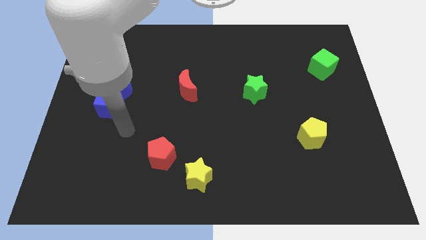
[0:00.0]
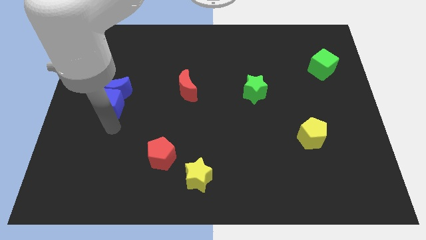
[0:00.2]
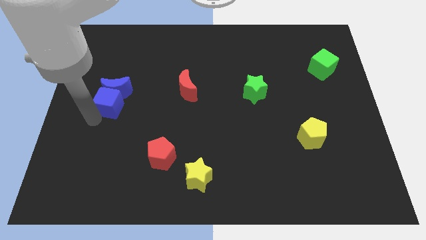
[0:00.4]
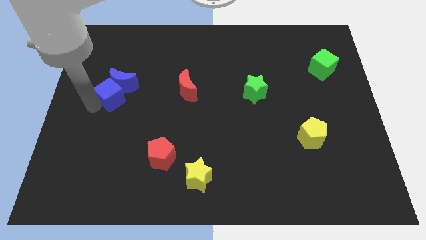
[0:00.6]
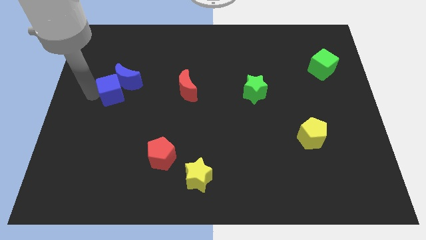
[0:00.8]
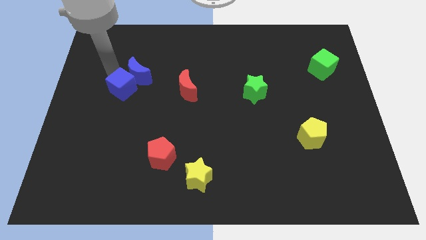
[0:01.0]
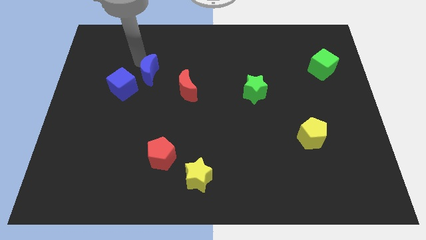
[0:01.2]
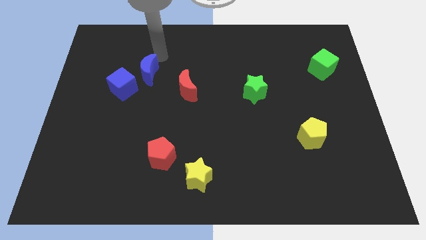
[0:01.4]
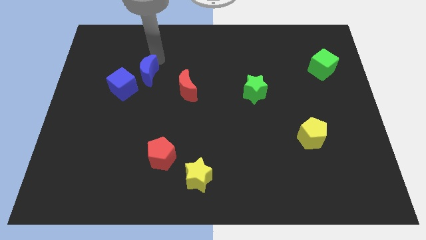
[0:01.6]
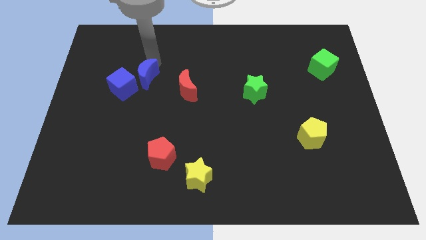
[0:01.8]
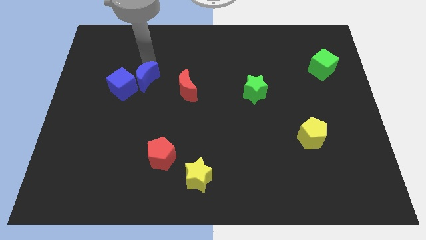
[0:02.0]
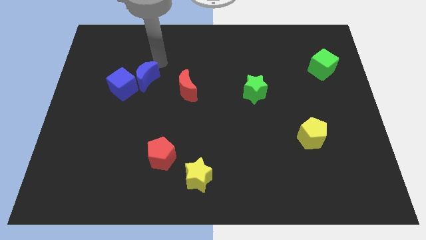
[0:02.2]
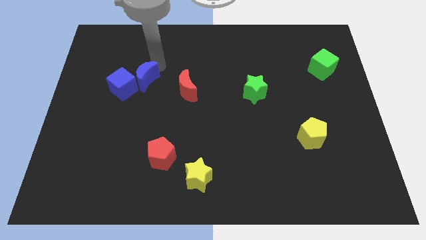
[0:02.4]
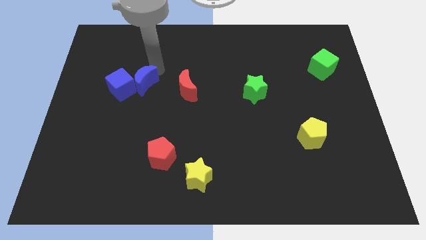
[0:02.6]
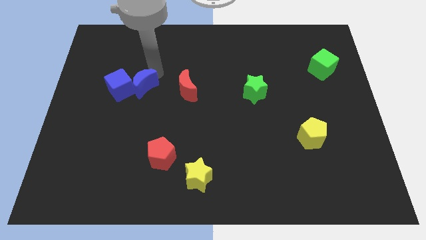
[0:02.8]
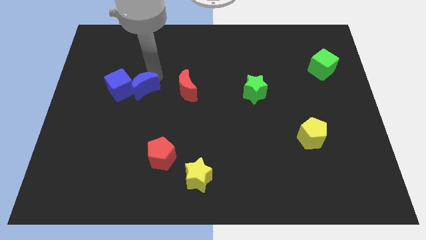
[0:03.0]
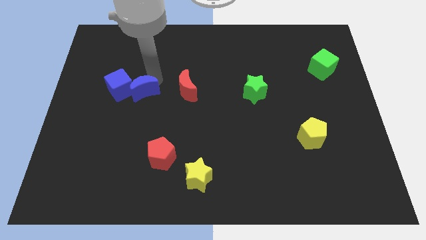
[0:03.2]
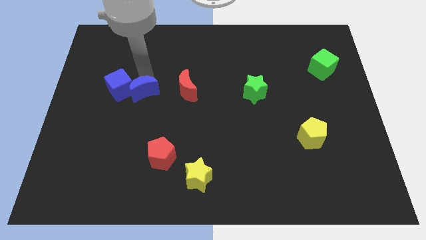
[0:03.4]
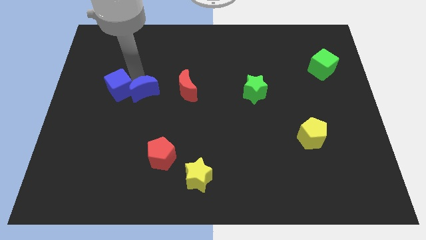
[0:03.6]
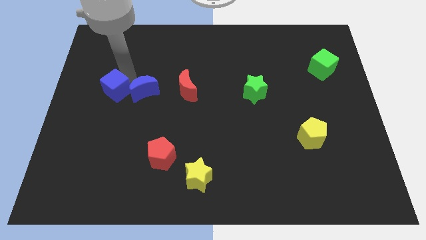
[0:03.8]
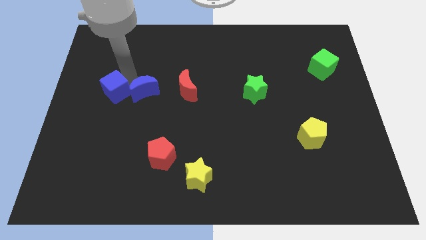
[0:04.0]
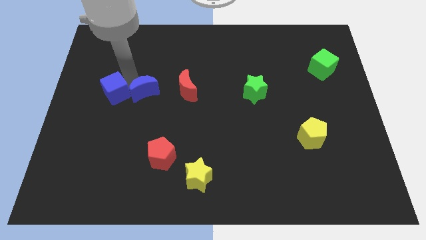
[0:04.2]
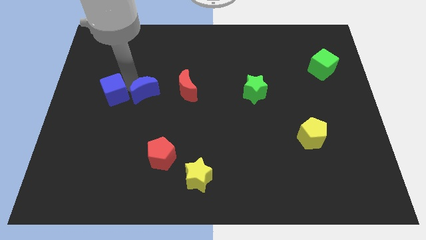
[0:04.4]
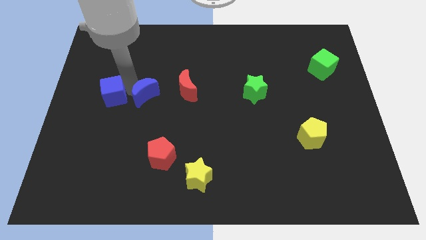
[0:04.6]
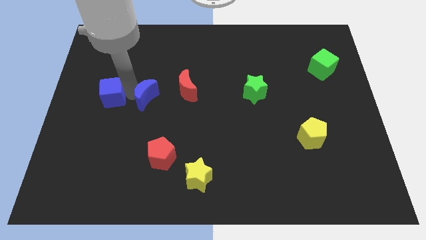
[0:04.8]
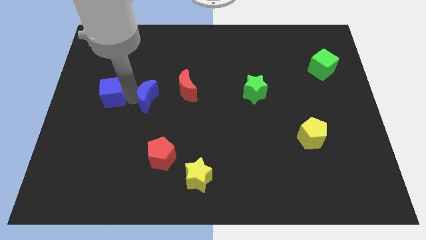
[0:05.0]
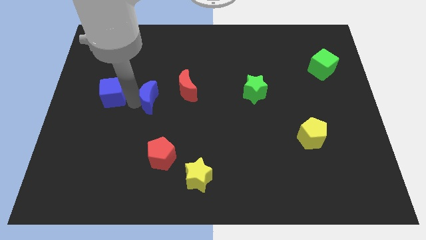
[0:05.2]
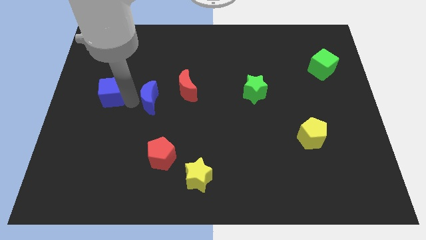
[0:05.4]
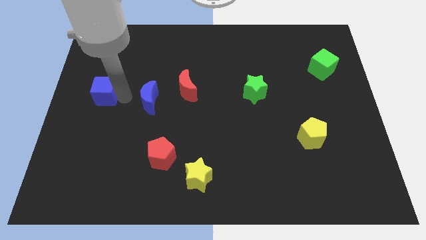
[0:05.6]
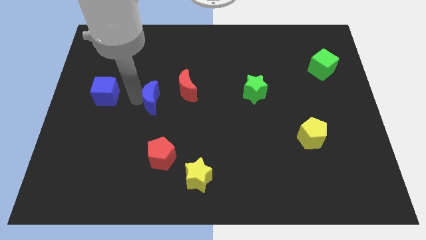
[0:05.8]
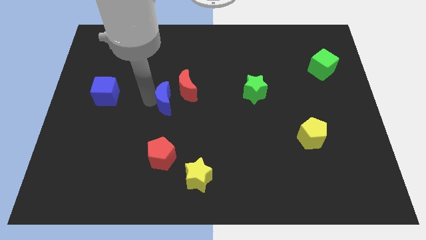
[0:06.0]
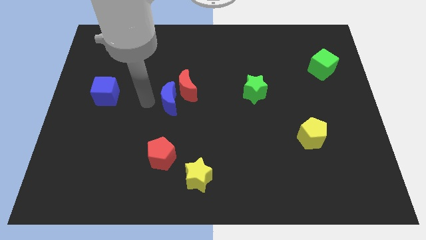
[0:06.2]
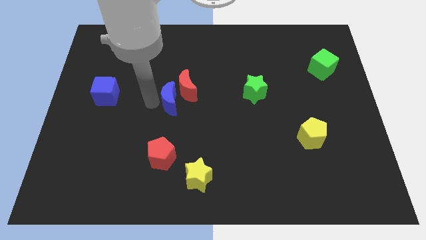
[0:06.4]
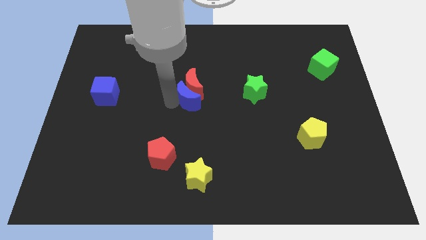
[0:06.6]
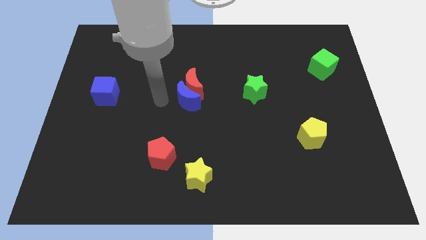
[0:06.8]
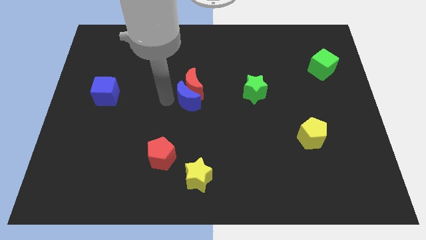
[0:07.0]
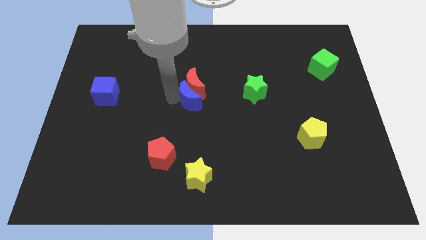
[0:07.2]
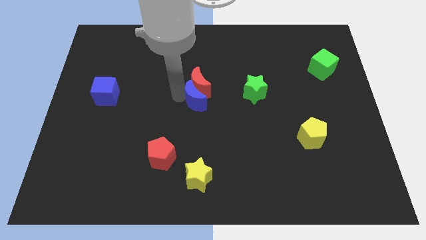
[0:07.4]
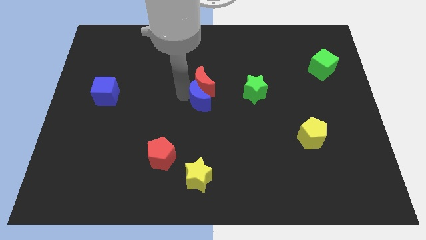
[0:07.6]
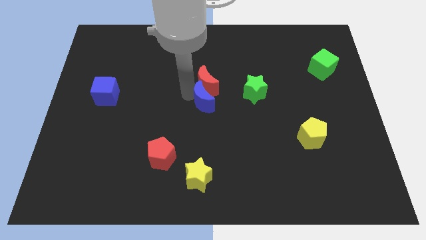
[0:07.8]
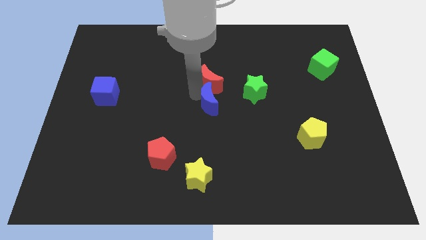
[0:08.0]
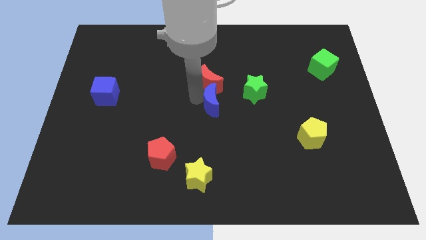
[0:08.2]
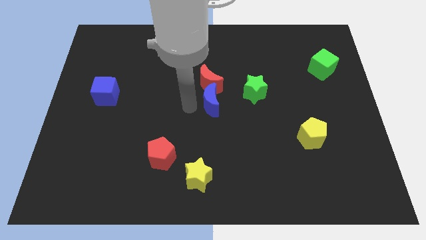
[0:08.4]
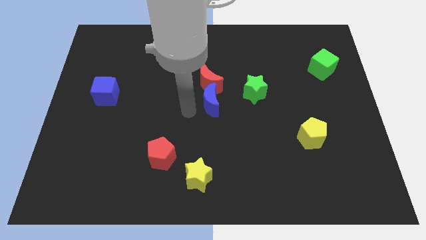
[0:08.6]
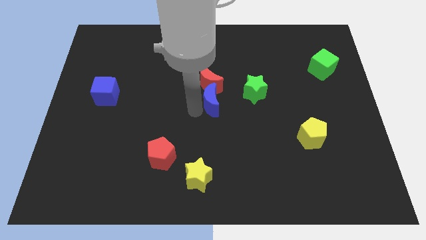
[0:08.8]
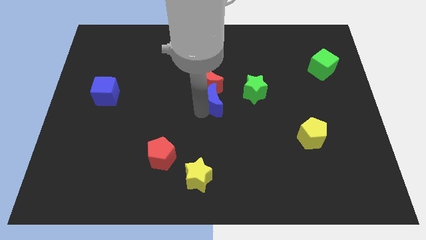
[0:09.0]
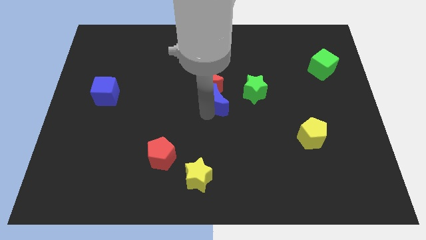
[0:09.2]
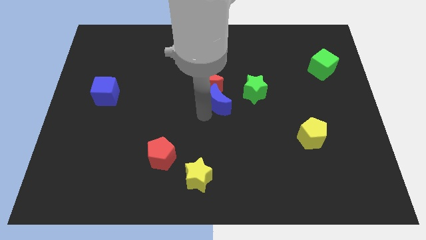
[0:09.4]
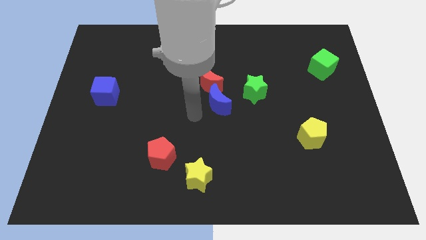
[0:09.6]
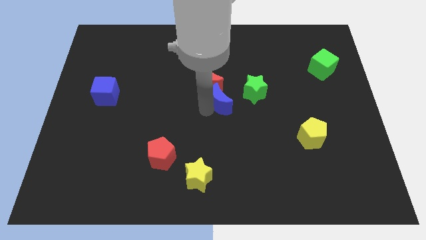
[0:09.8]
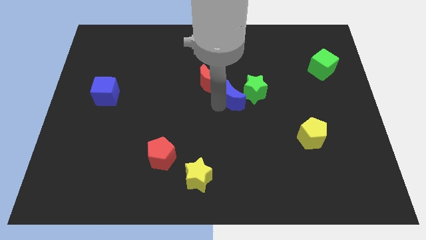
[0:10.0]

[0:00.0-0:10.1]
move the blue moon close to the green star

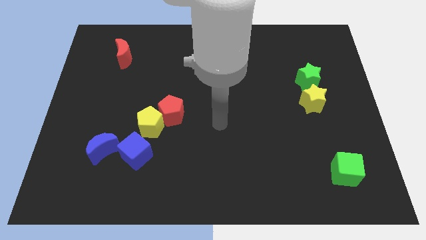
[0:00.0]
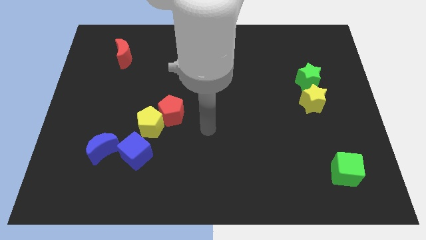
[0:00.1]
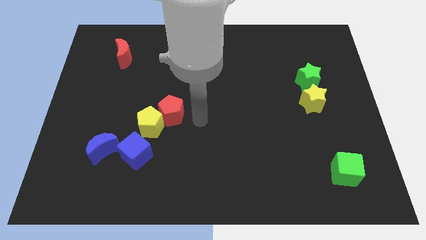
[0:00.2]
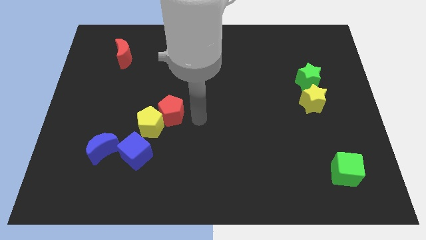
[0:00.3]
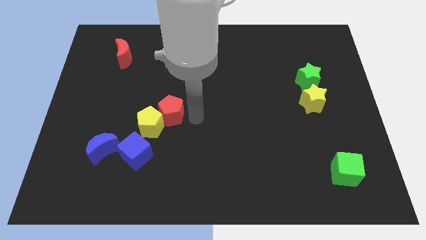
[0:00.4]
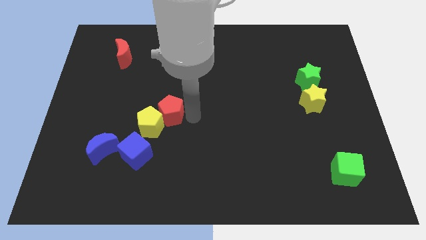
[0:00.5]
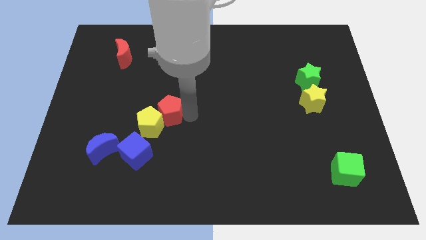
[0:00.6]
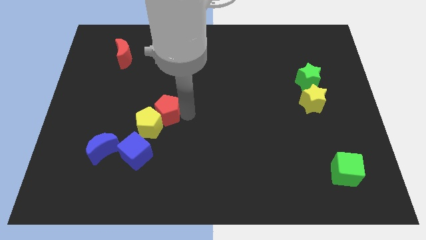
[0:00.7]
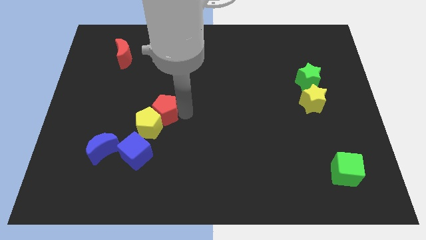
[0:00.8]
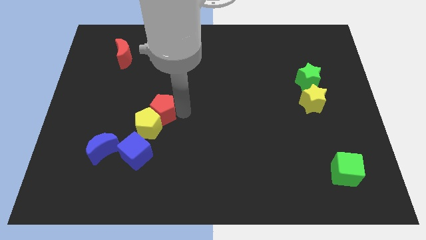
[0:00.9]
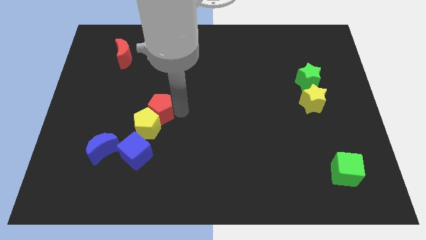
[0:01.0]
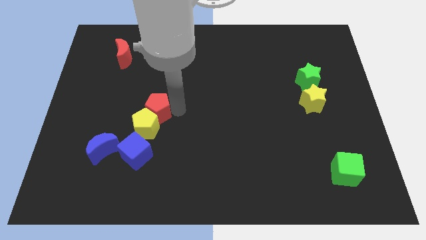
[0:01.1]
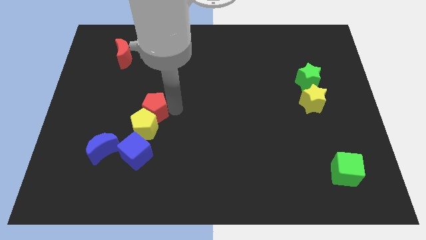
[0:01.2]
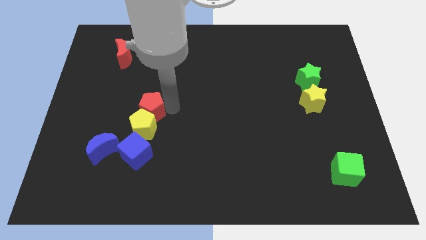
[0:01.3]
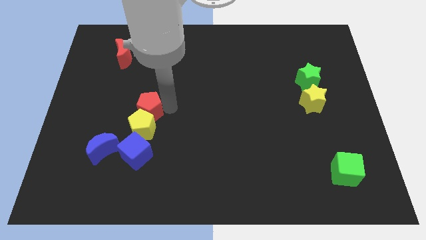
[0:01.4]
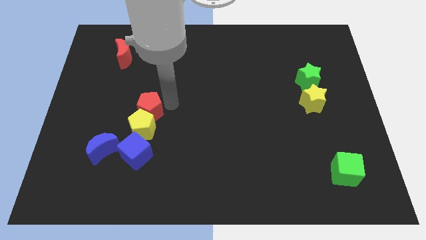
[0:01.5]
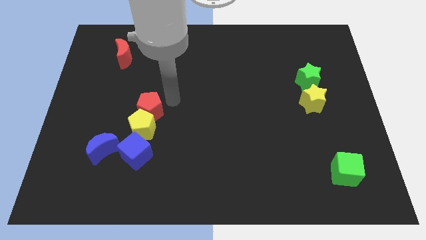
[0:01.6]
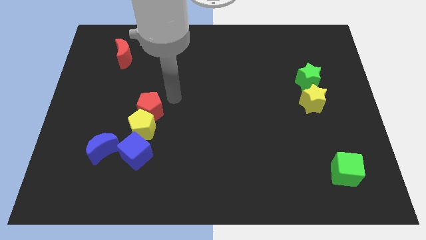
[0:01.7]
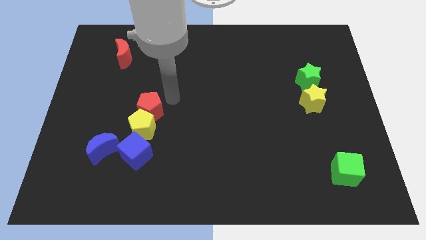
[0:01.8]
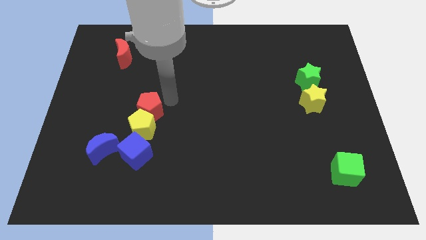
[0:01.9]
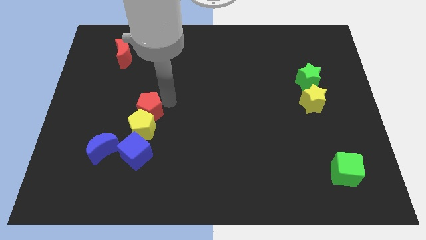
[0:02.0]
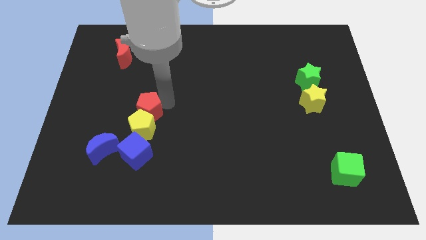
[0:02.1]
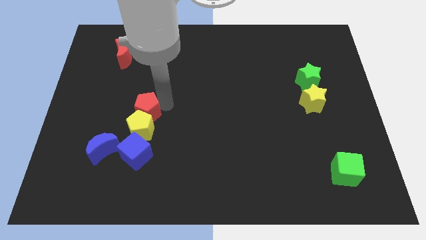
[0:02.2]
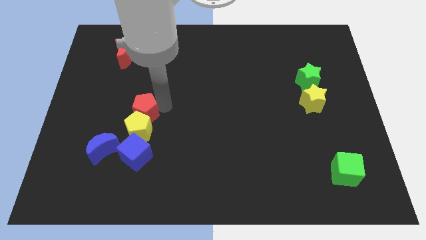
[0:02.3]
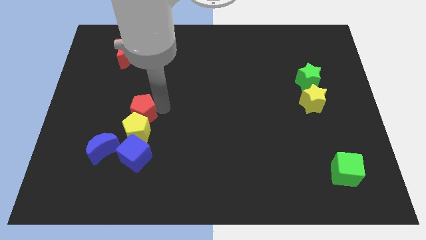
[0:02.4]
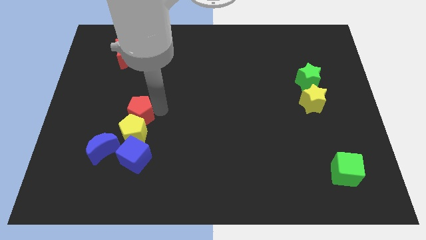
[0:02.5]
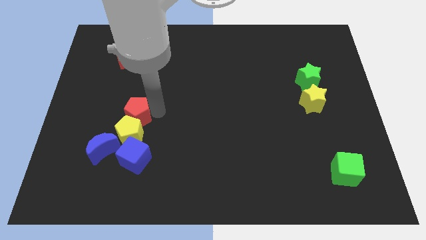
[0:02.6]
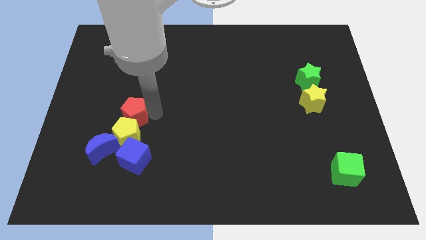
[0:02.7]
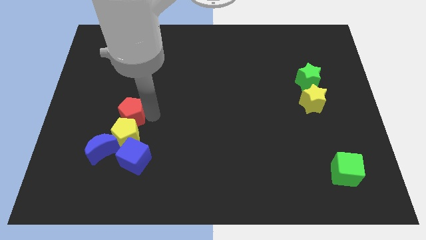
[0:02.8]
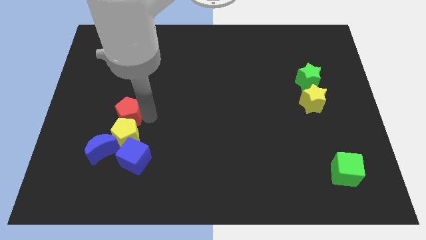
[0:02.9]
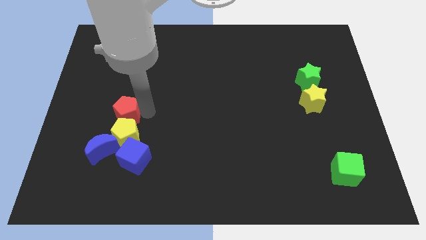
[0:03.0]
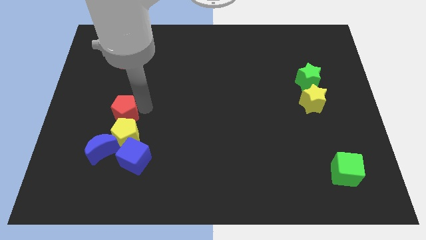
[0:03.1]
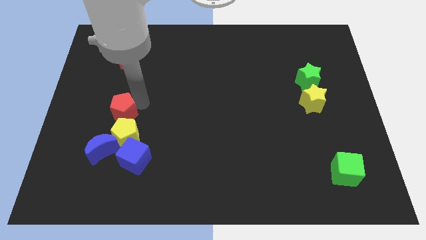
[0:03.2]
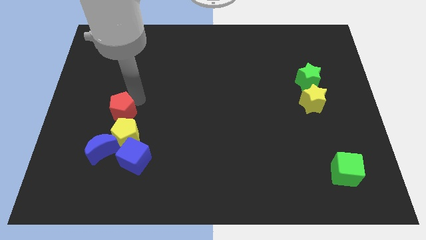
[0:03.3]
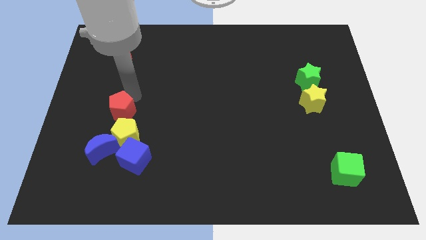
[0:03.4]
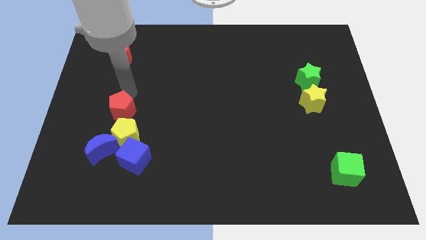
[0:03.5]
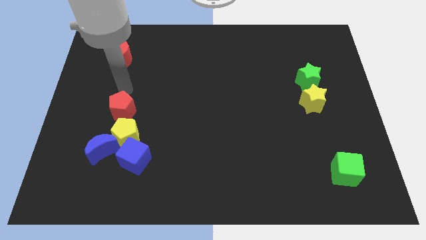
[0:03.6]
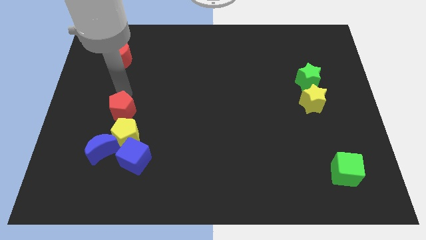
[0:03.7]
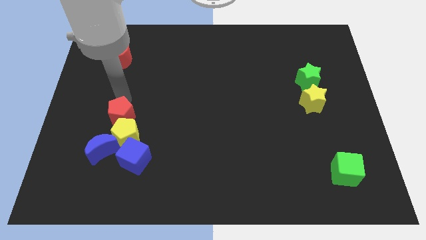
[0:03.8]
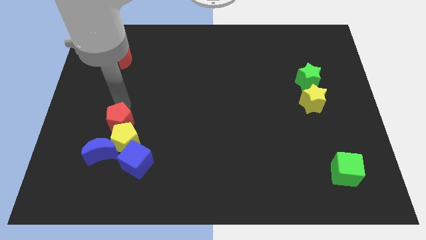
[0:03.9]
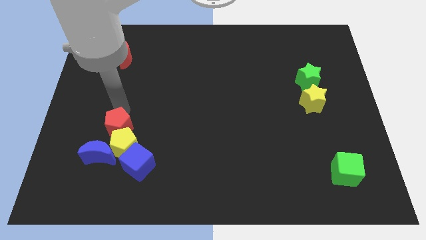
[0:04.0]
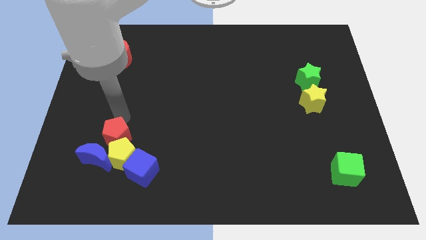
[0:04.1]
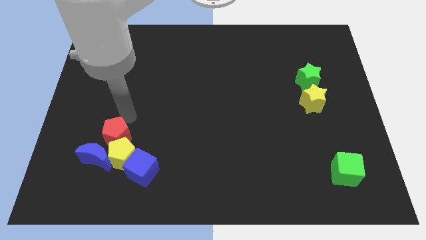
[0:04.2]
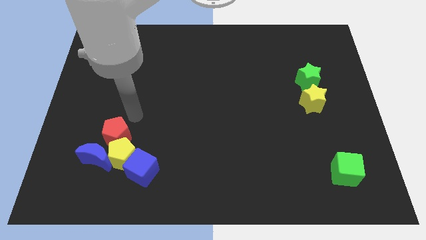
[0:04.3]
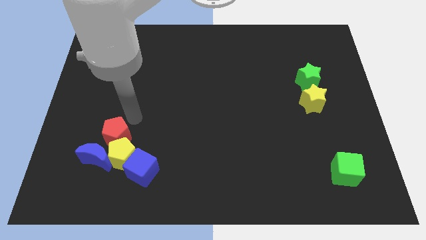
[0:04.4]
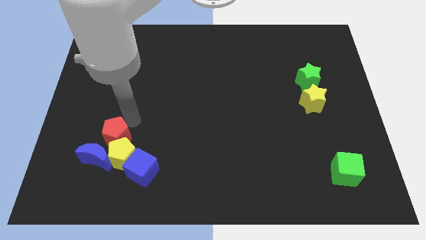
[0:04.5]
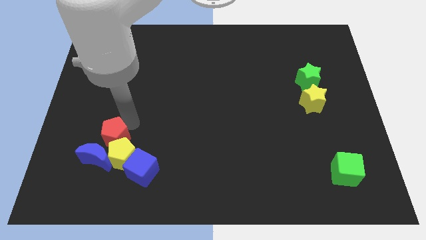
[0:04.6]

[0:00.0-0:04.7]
push the red pentagon next to the blue moon
